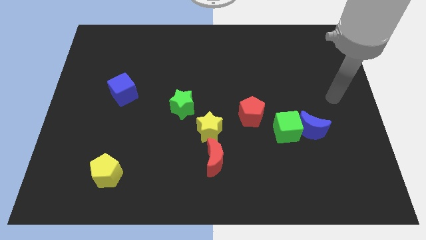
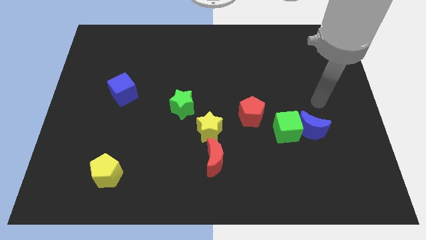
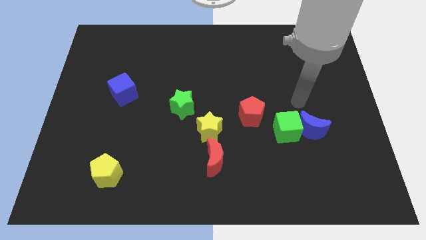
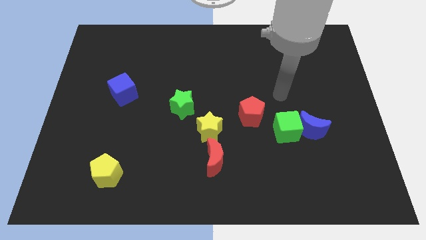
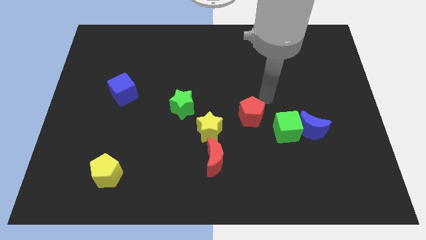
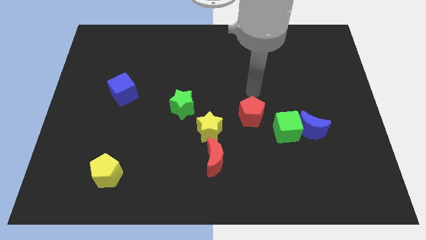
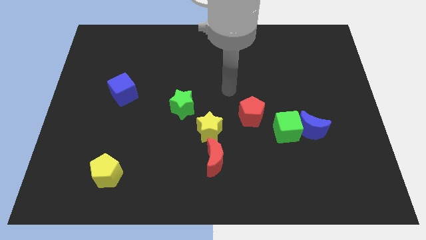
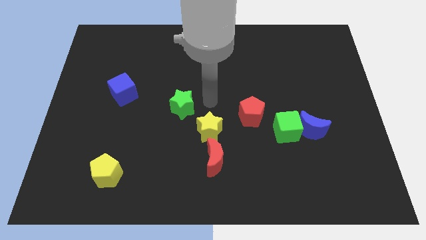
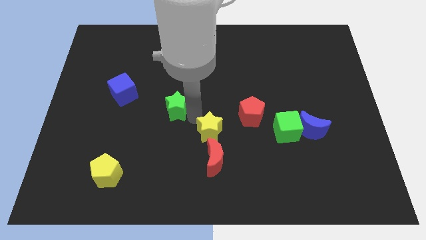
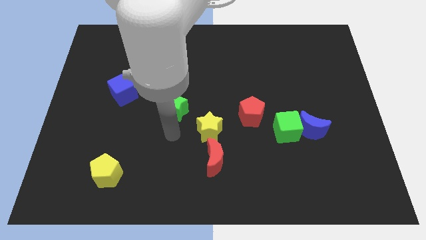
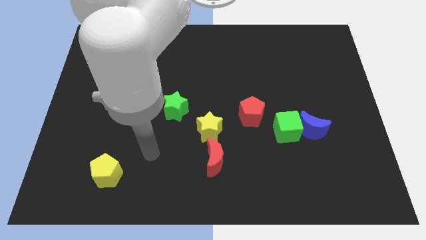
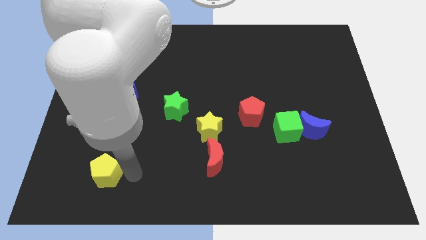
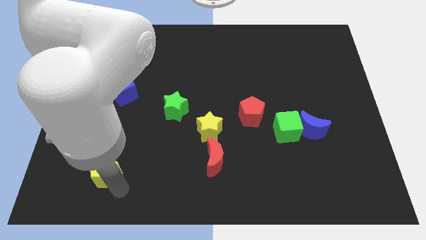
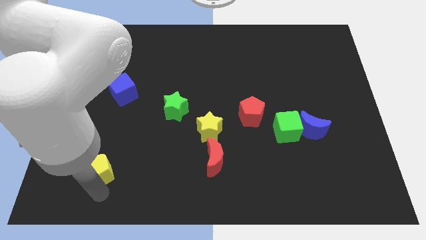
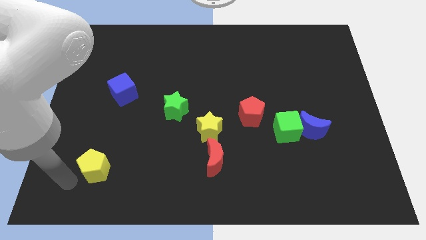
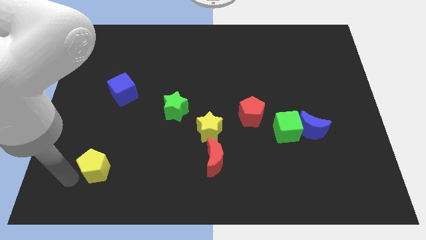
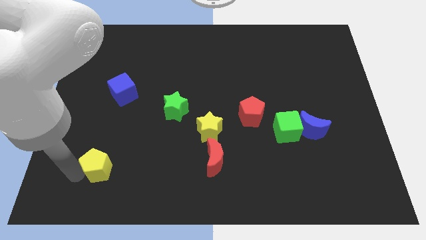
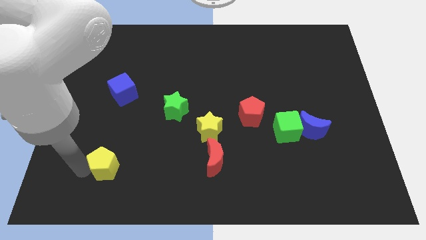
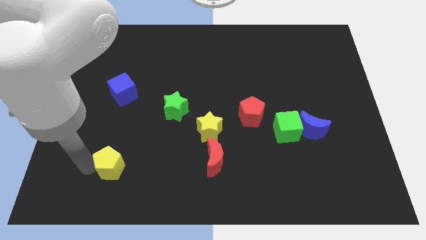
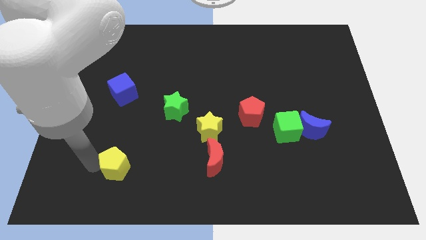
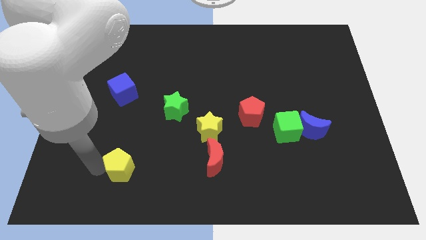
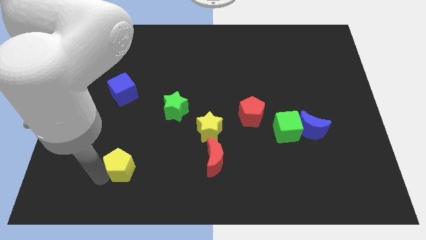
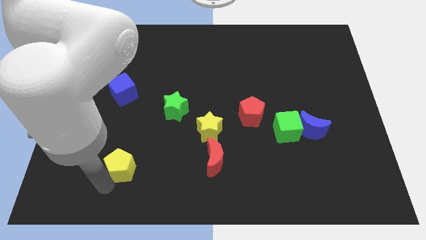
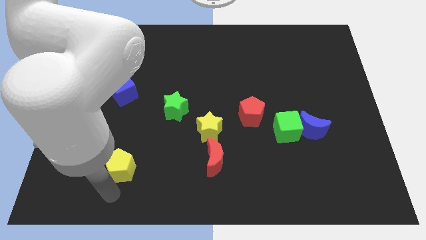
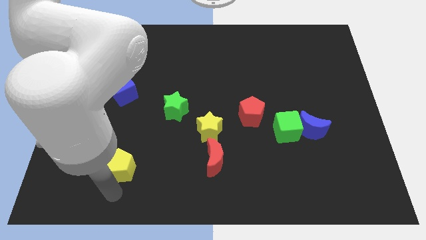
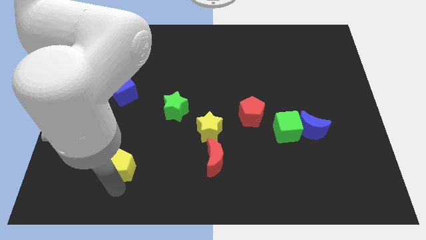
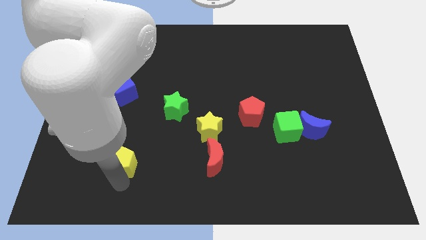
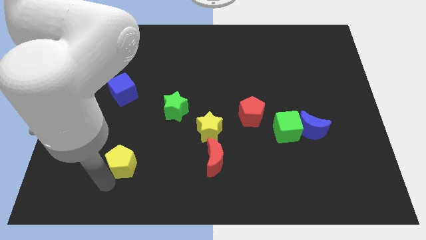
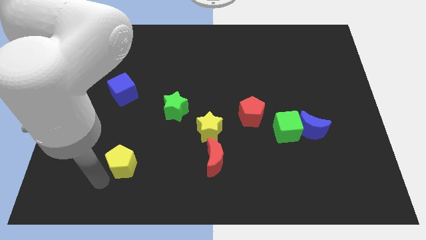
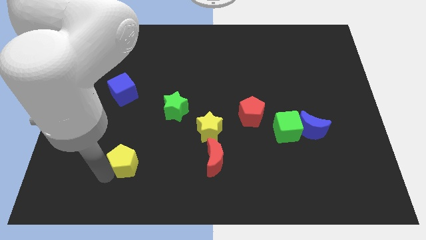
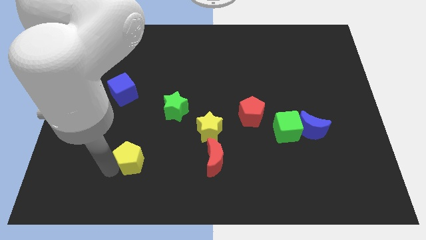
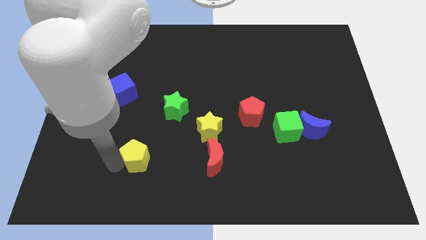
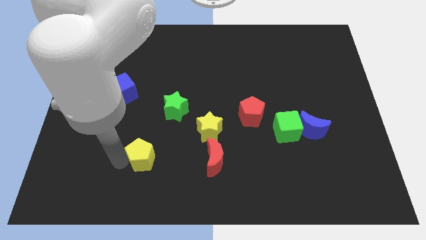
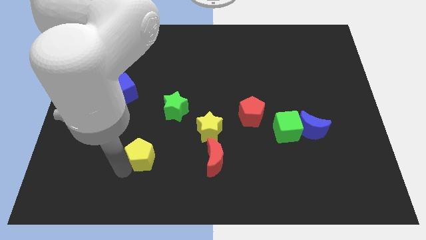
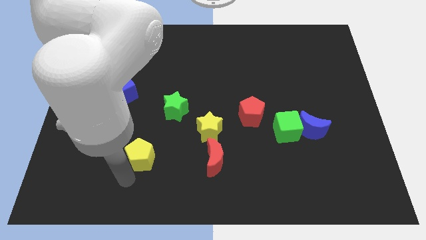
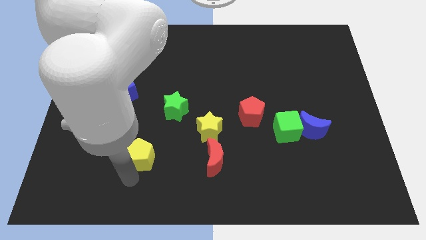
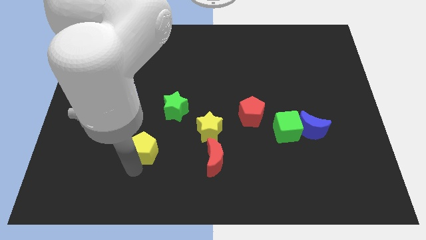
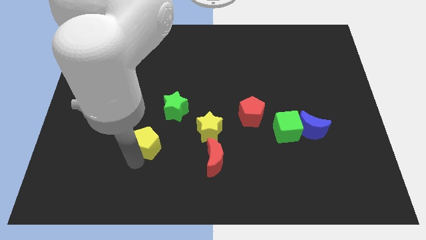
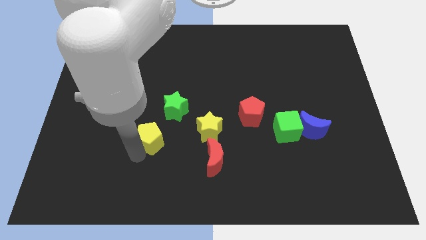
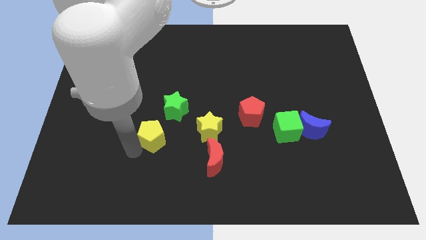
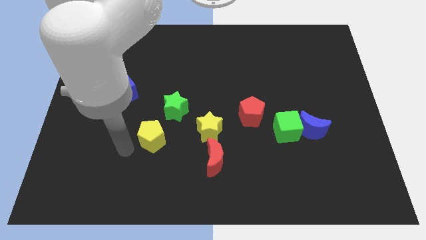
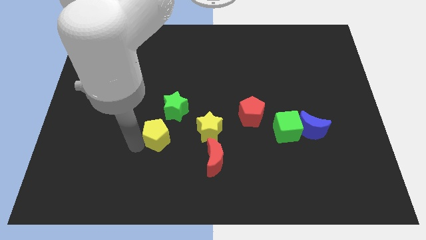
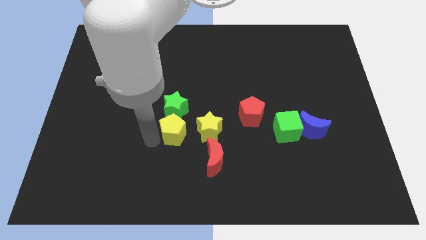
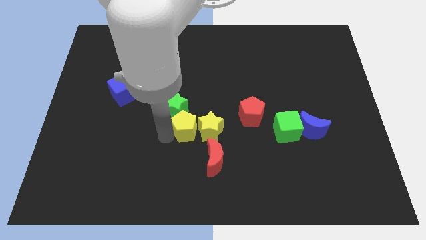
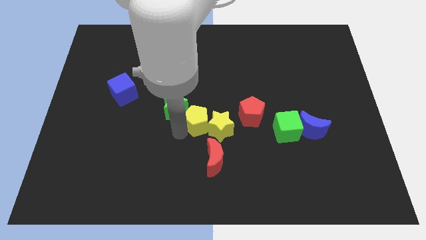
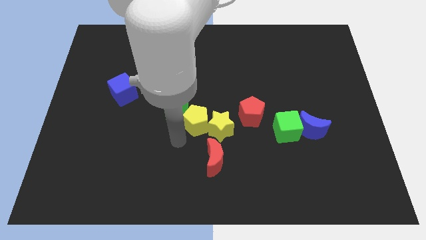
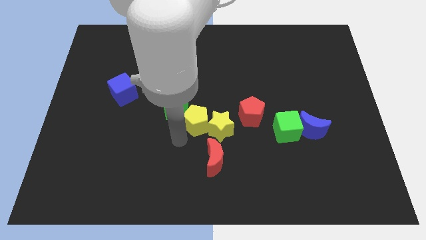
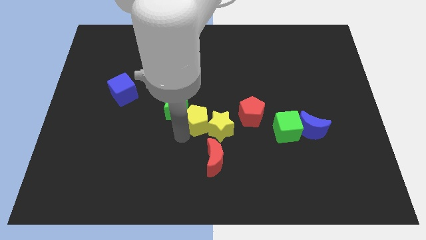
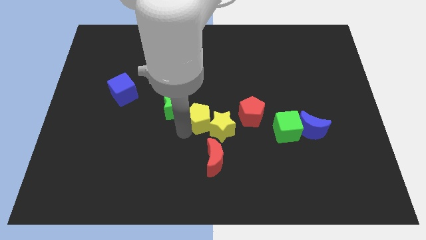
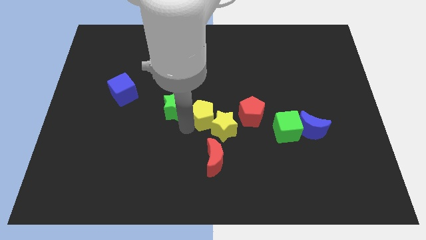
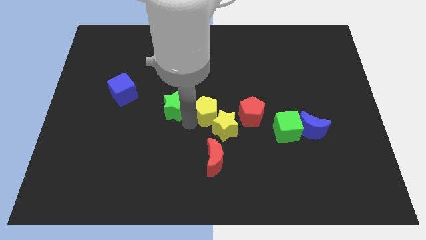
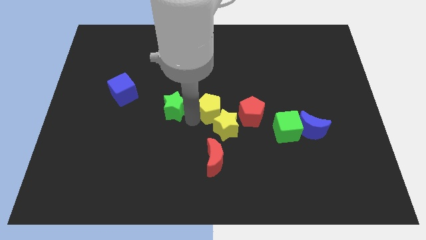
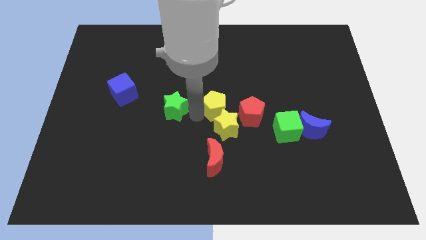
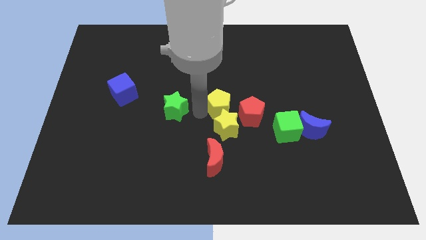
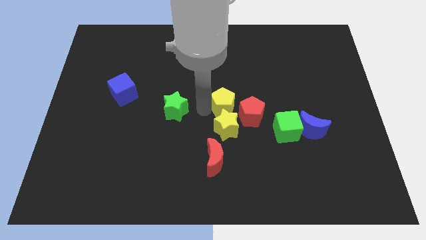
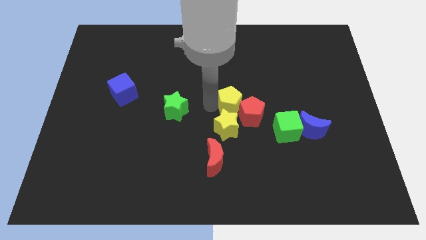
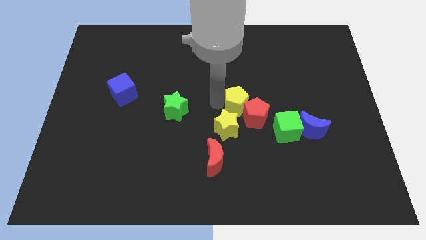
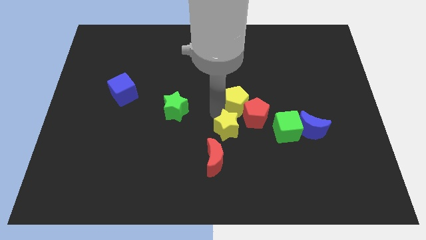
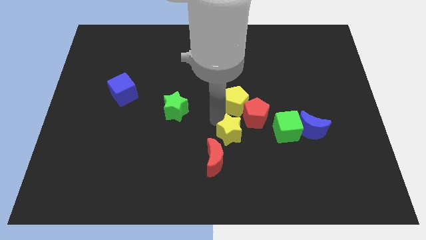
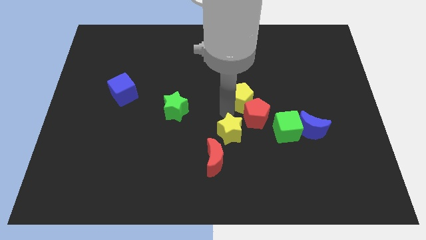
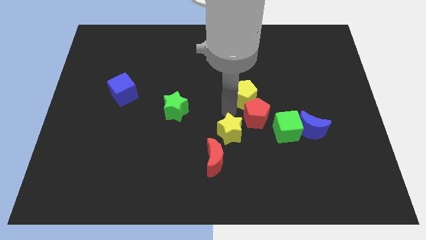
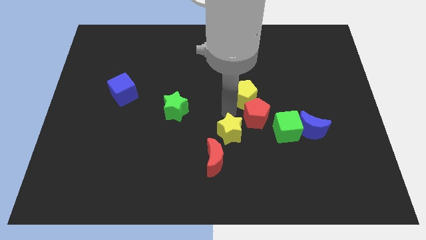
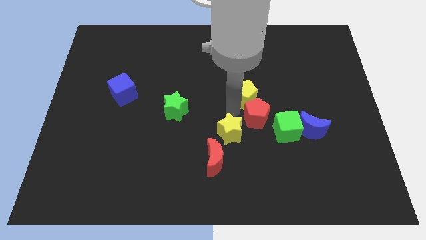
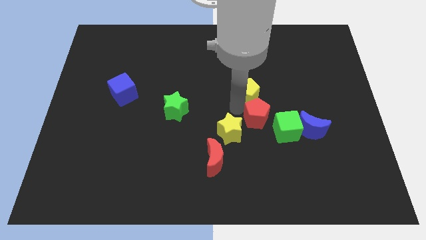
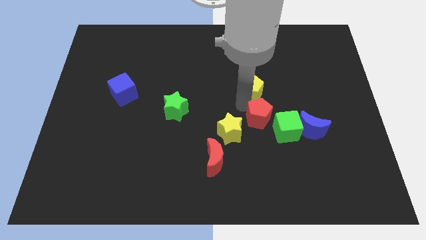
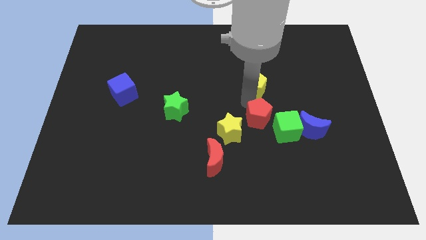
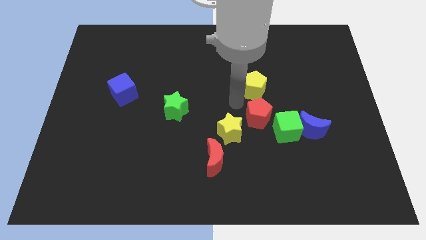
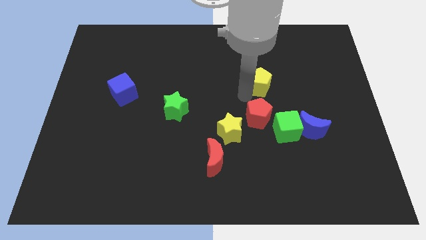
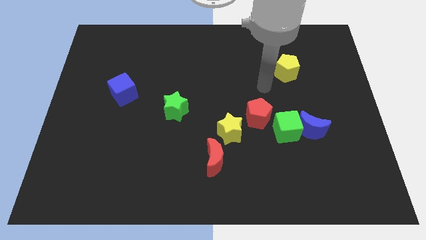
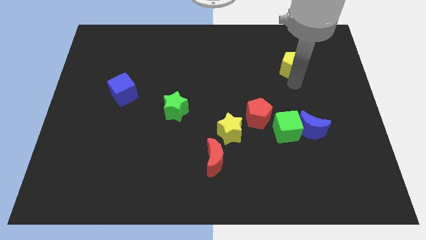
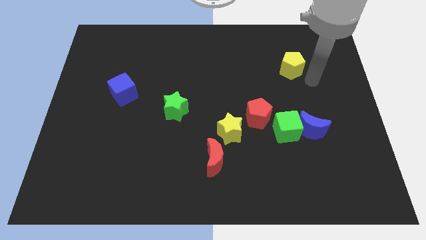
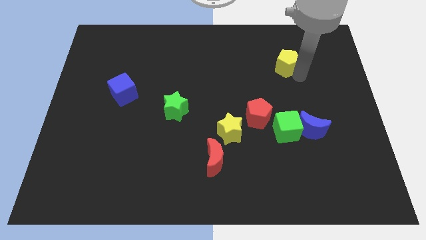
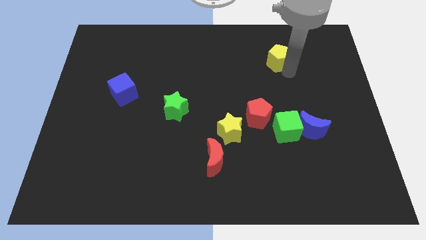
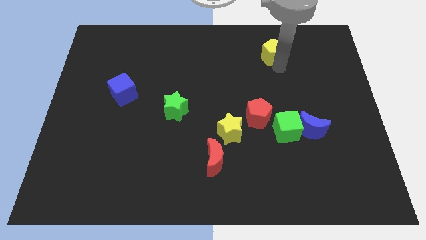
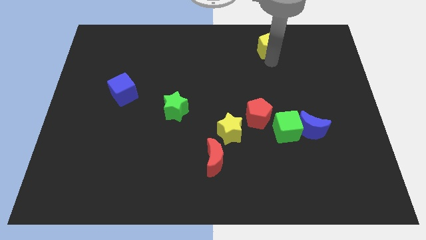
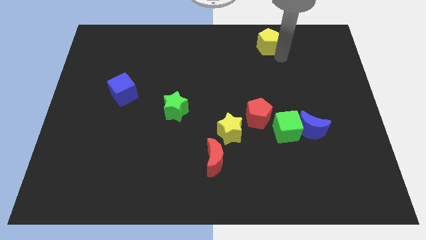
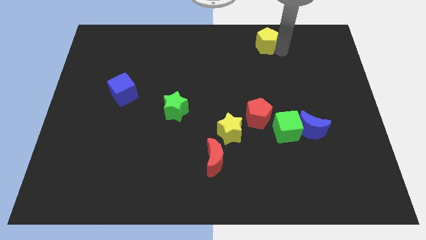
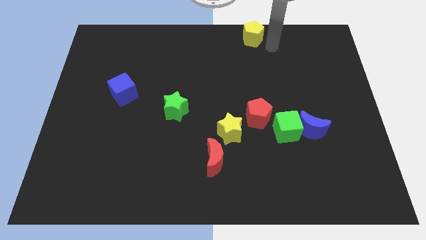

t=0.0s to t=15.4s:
push the yellow pentagon to the towards your base
